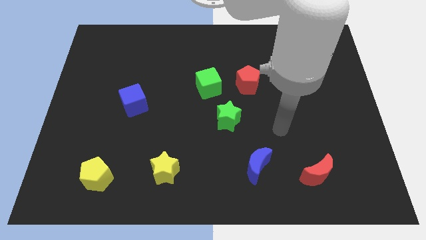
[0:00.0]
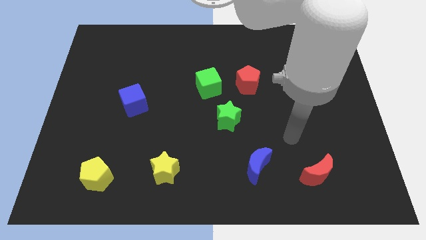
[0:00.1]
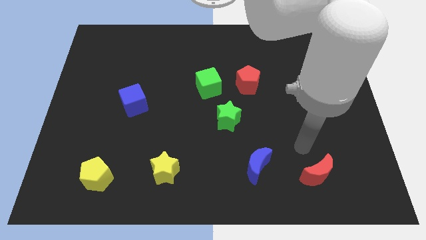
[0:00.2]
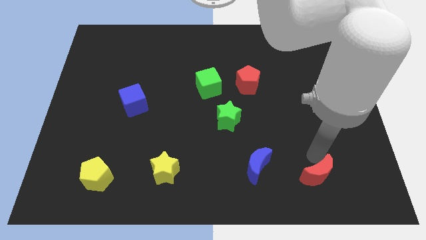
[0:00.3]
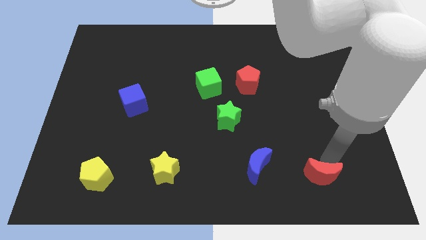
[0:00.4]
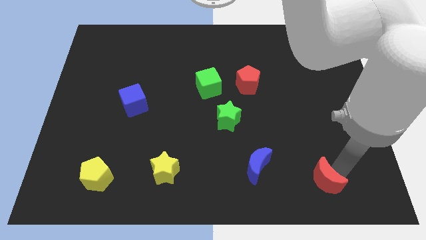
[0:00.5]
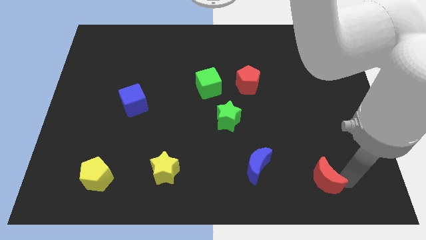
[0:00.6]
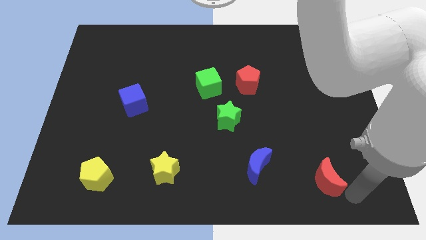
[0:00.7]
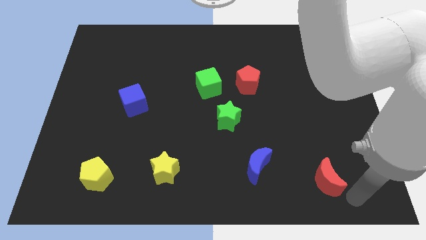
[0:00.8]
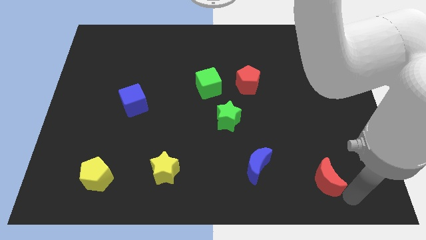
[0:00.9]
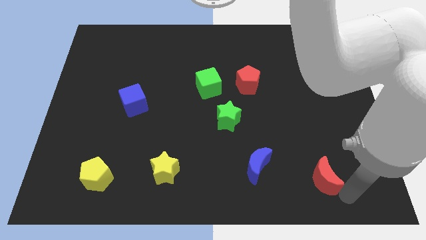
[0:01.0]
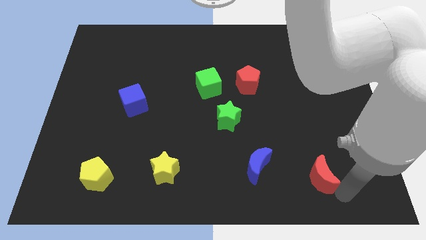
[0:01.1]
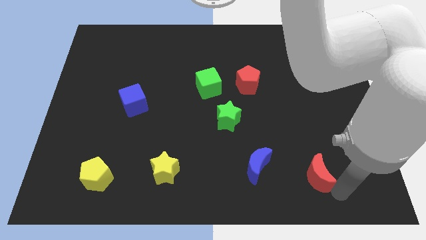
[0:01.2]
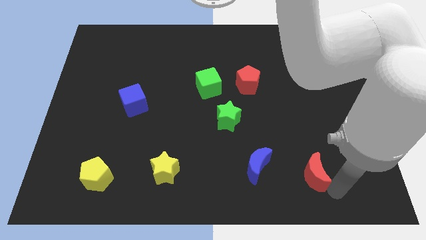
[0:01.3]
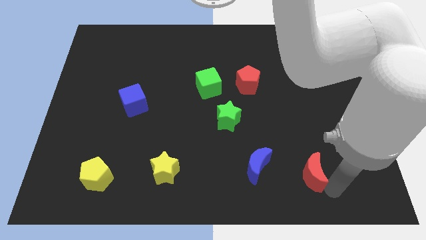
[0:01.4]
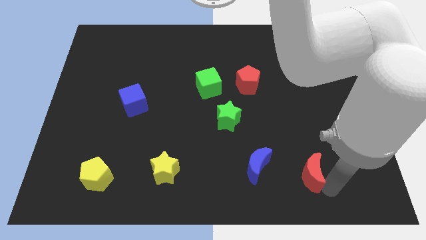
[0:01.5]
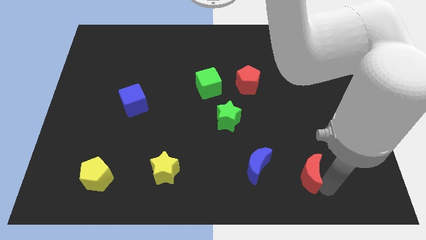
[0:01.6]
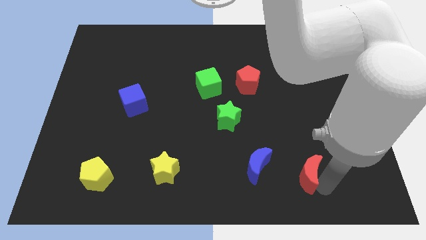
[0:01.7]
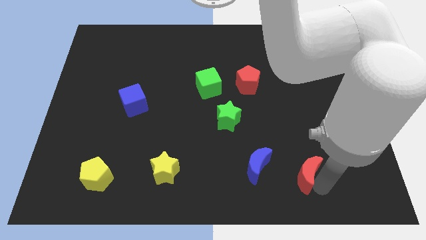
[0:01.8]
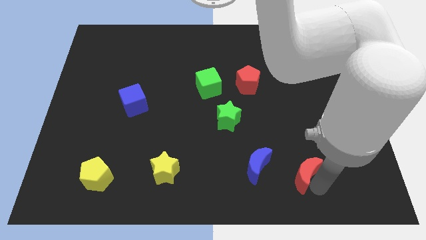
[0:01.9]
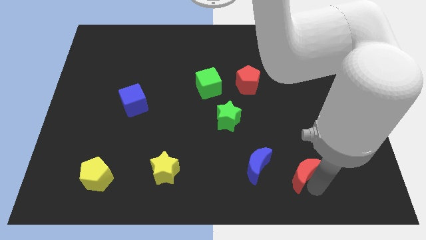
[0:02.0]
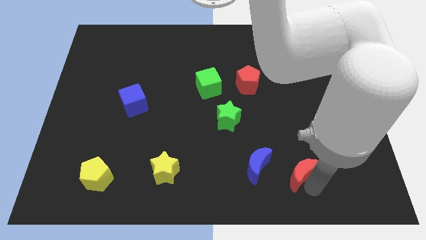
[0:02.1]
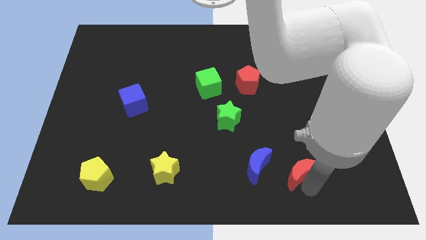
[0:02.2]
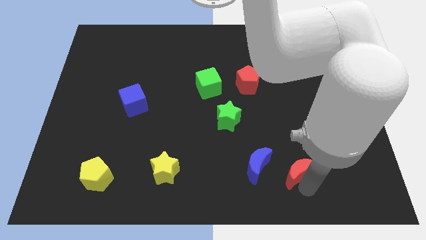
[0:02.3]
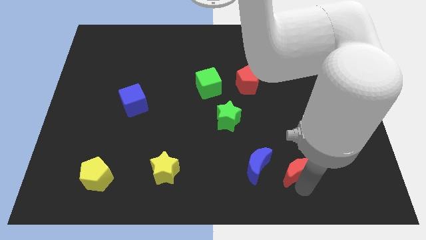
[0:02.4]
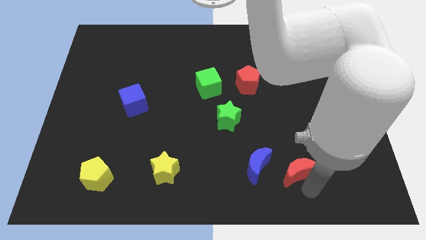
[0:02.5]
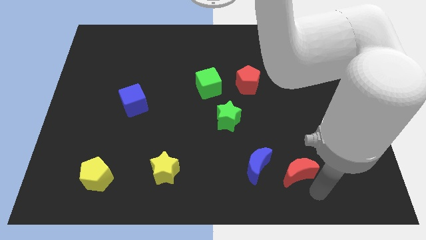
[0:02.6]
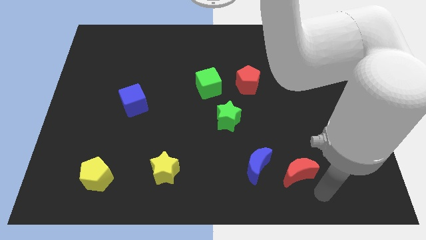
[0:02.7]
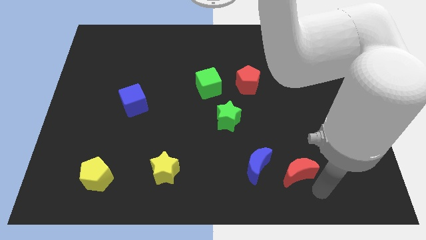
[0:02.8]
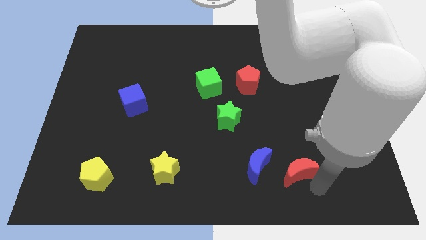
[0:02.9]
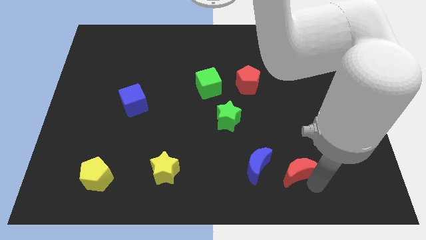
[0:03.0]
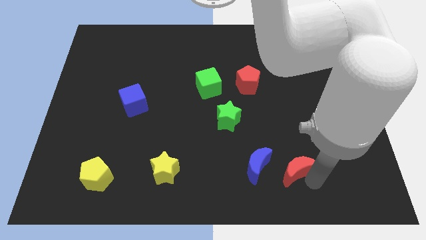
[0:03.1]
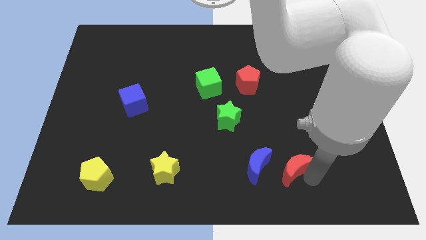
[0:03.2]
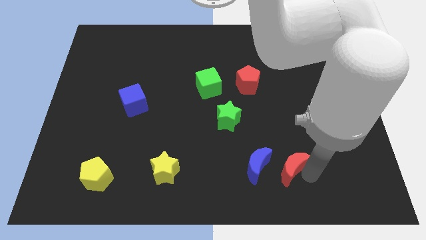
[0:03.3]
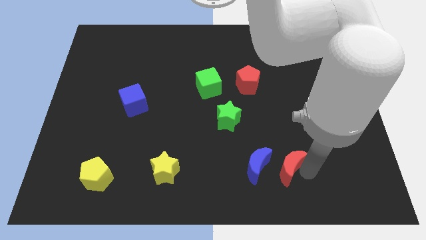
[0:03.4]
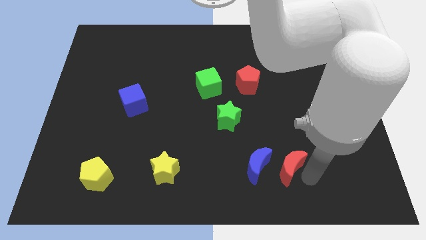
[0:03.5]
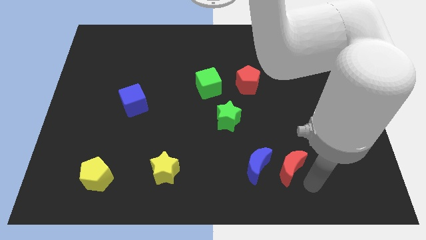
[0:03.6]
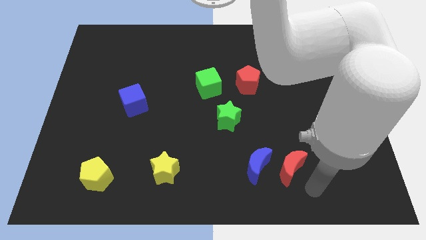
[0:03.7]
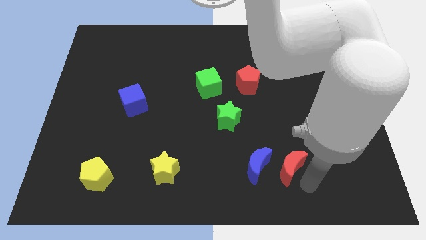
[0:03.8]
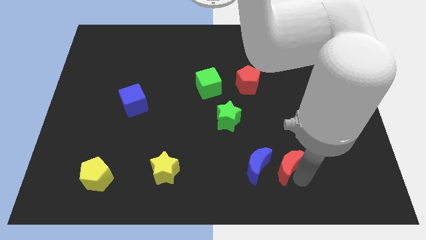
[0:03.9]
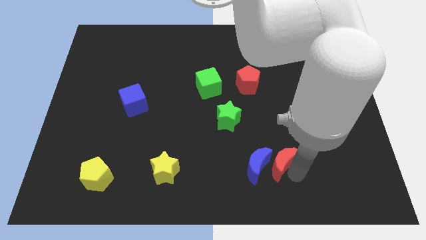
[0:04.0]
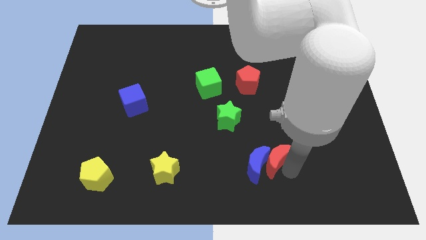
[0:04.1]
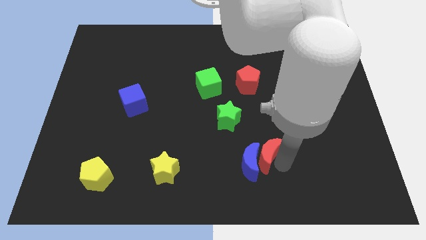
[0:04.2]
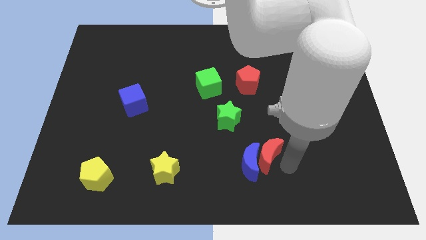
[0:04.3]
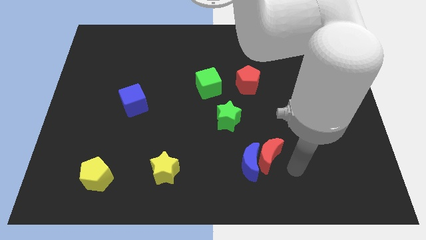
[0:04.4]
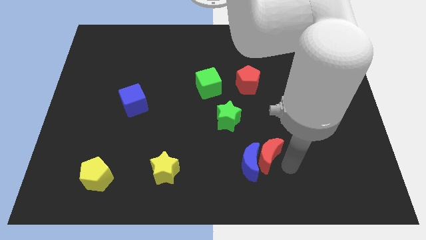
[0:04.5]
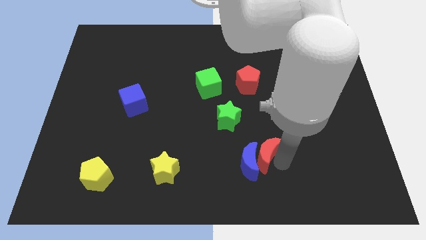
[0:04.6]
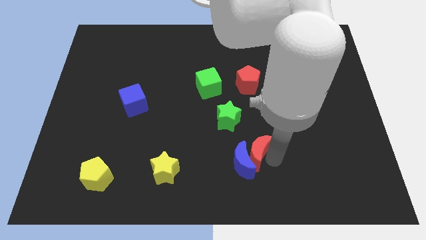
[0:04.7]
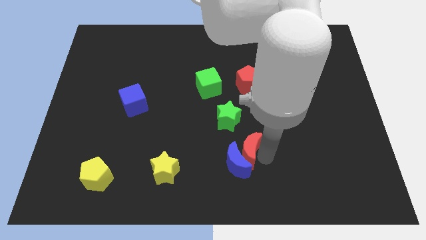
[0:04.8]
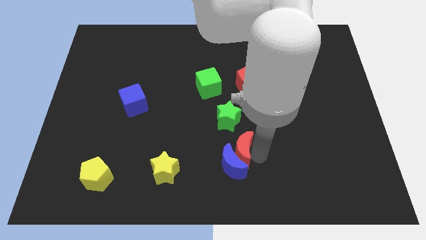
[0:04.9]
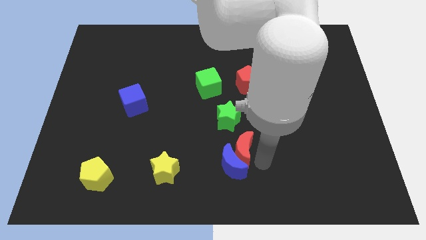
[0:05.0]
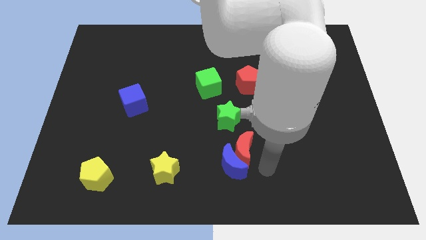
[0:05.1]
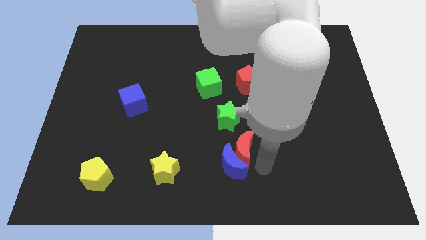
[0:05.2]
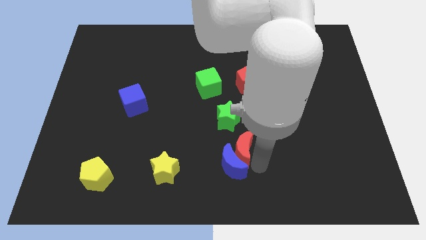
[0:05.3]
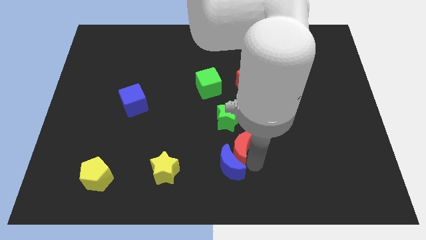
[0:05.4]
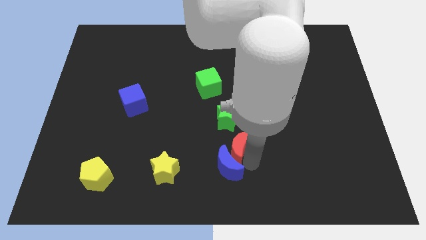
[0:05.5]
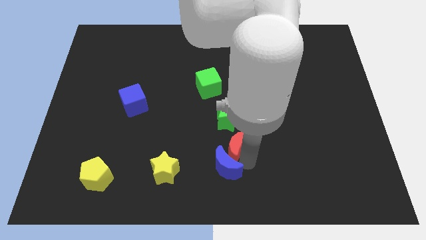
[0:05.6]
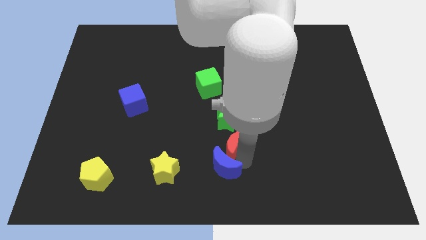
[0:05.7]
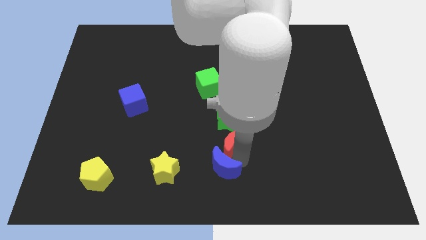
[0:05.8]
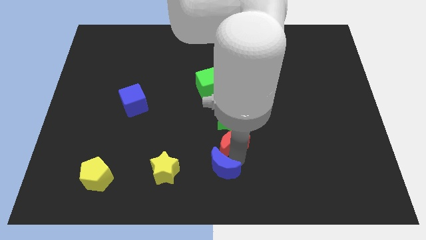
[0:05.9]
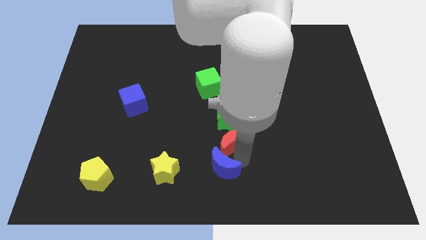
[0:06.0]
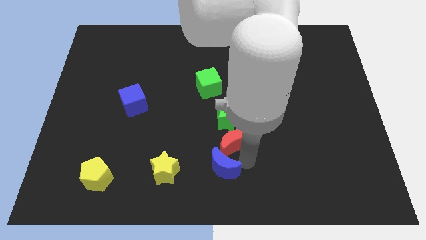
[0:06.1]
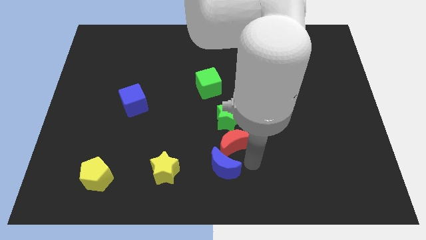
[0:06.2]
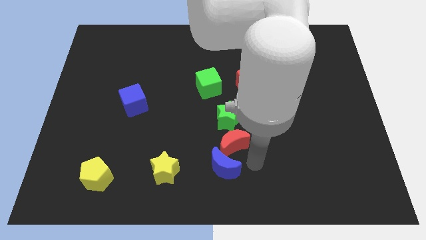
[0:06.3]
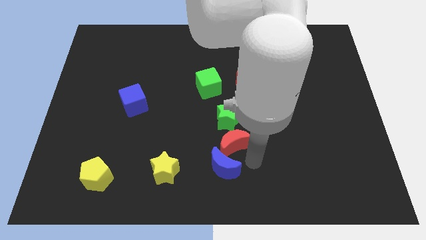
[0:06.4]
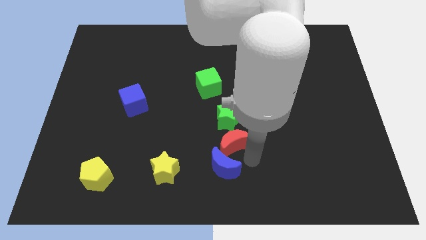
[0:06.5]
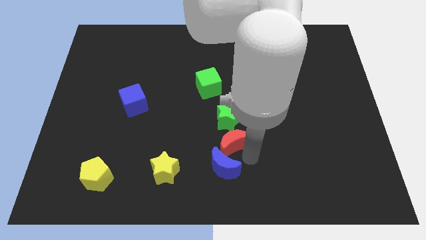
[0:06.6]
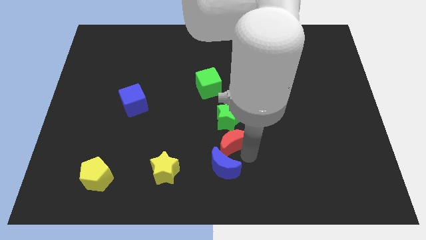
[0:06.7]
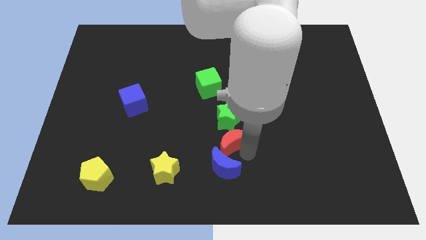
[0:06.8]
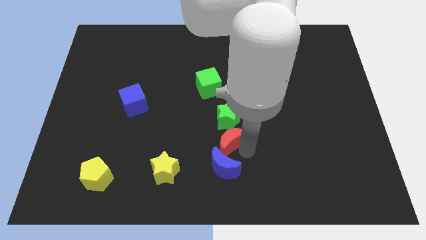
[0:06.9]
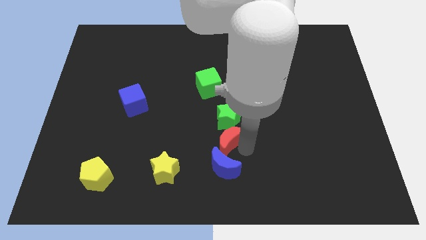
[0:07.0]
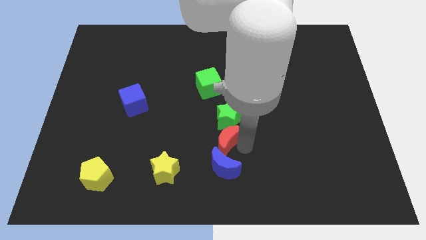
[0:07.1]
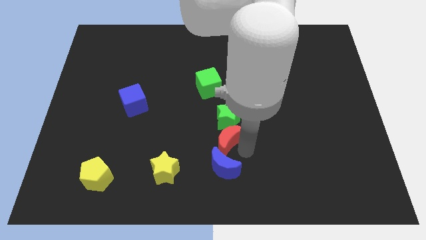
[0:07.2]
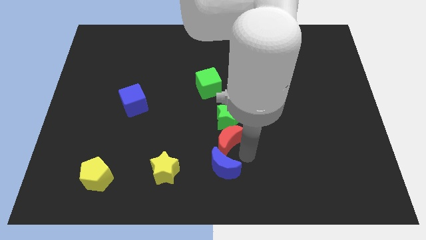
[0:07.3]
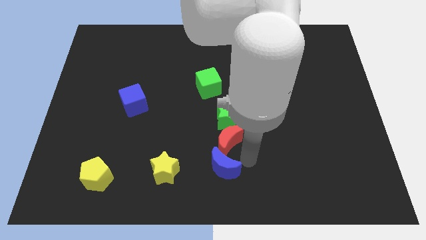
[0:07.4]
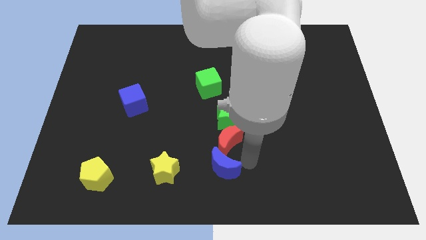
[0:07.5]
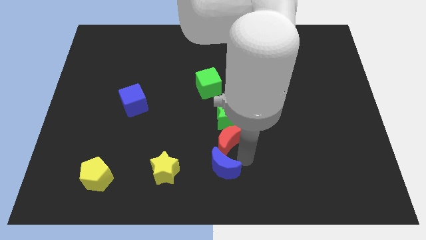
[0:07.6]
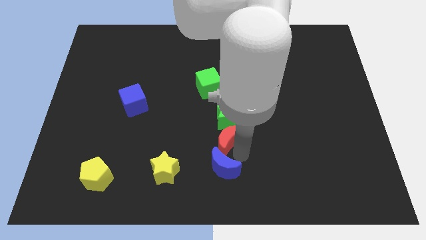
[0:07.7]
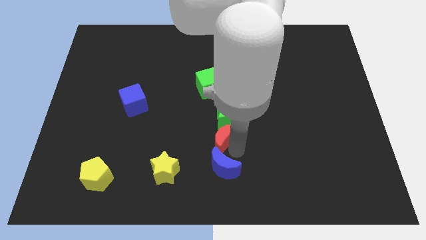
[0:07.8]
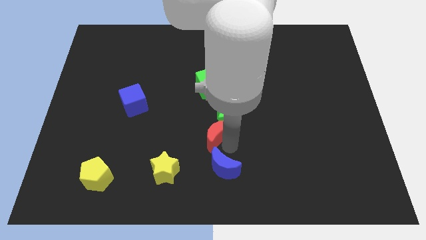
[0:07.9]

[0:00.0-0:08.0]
slide the red moon to the bottom of the green cube
